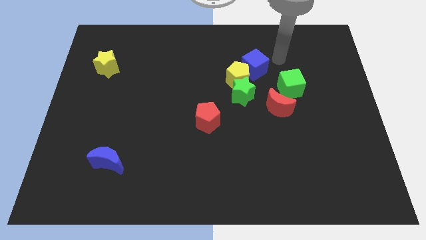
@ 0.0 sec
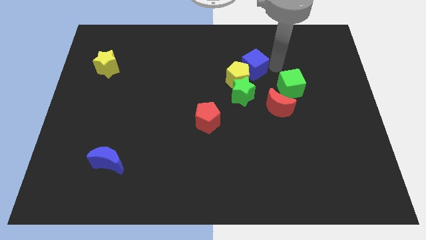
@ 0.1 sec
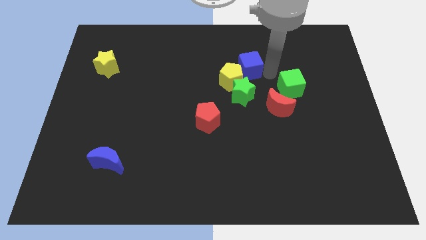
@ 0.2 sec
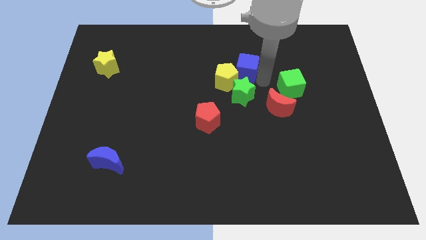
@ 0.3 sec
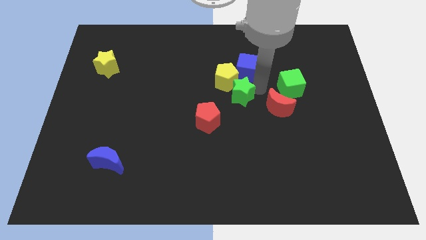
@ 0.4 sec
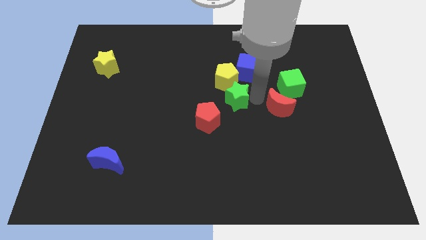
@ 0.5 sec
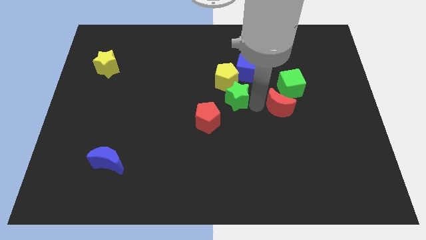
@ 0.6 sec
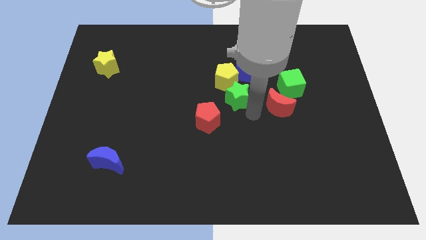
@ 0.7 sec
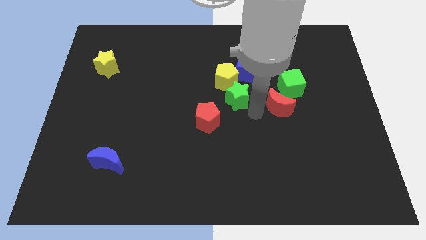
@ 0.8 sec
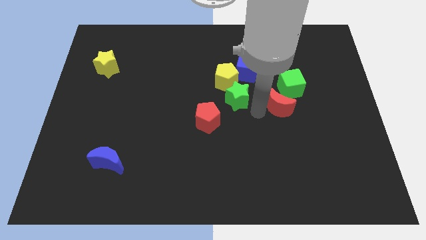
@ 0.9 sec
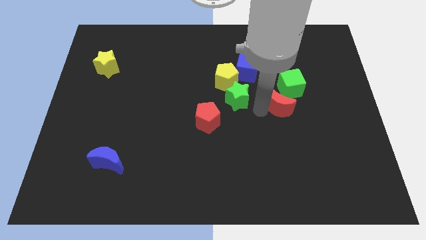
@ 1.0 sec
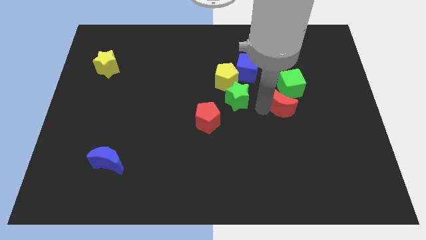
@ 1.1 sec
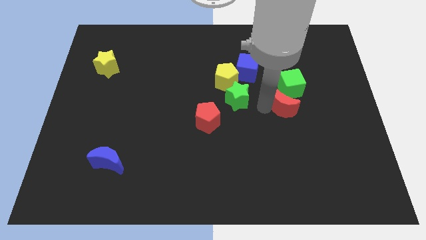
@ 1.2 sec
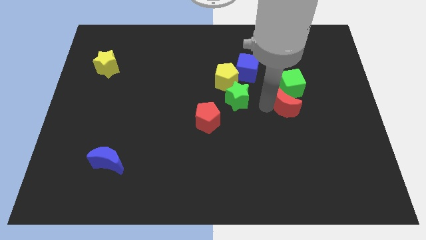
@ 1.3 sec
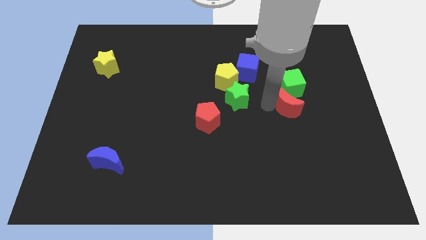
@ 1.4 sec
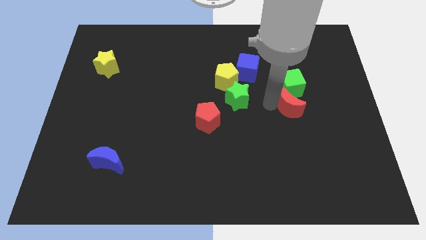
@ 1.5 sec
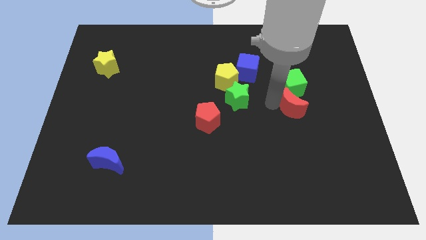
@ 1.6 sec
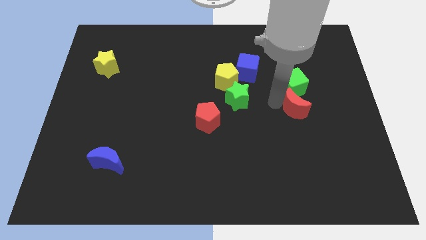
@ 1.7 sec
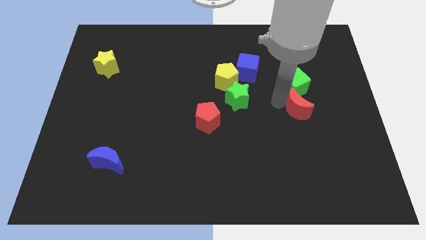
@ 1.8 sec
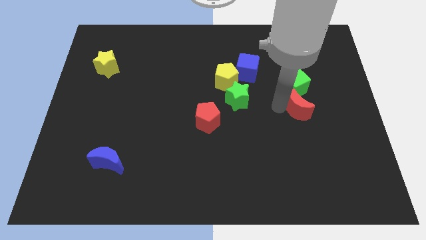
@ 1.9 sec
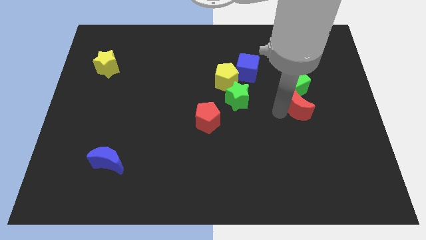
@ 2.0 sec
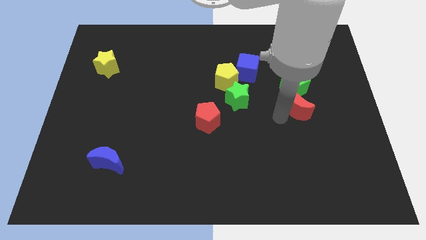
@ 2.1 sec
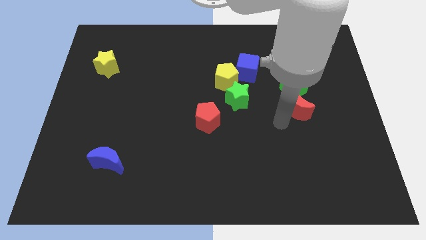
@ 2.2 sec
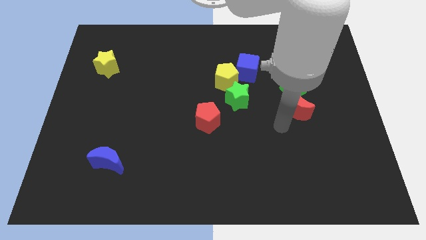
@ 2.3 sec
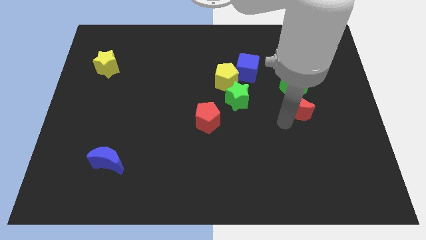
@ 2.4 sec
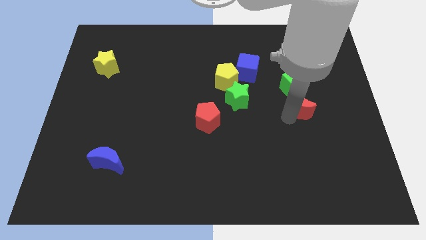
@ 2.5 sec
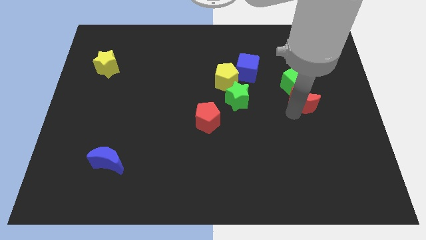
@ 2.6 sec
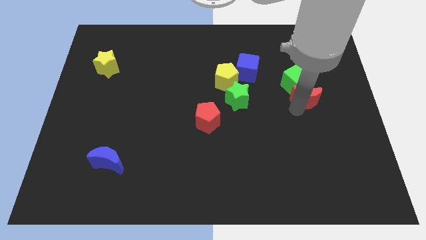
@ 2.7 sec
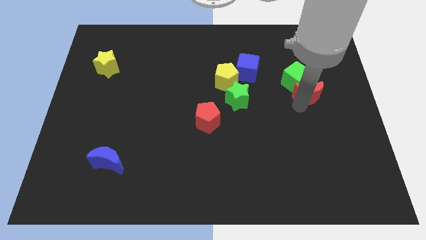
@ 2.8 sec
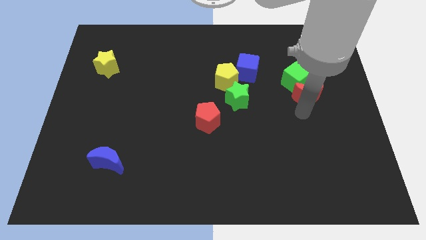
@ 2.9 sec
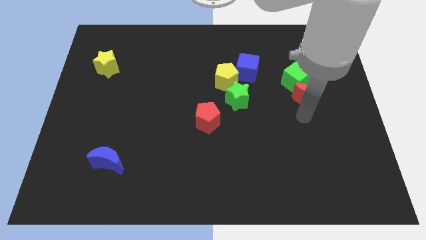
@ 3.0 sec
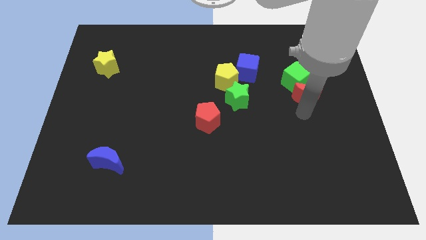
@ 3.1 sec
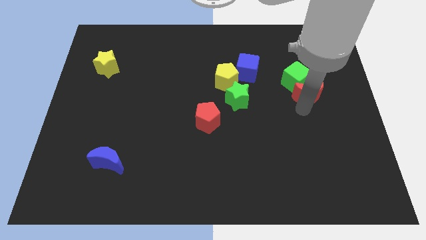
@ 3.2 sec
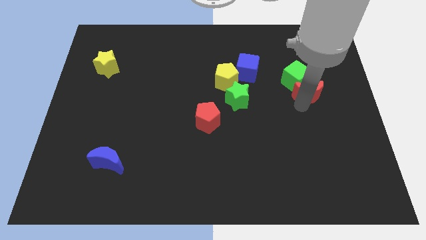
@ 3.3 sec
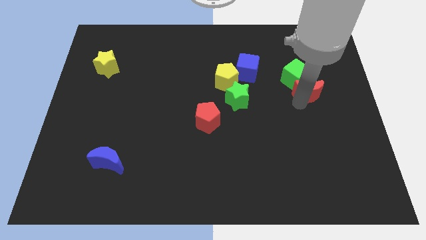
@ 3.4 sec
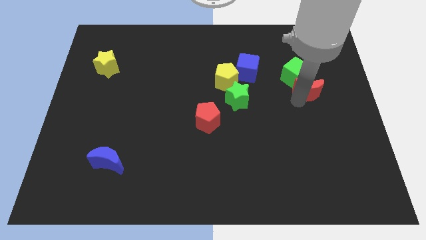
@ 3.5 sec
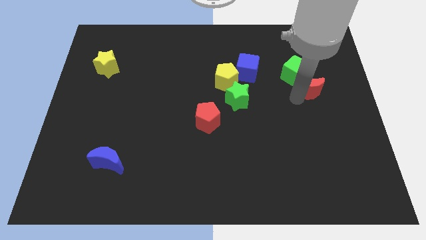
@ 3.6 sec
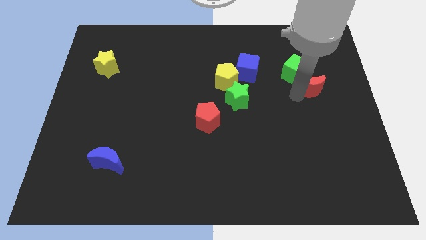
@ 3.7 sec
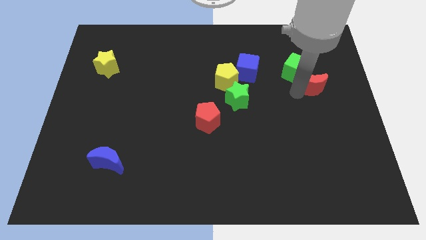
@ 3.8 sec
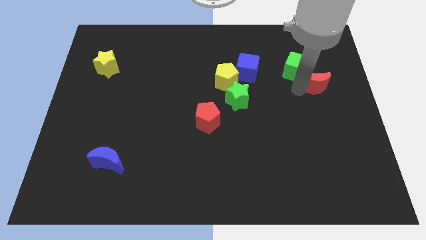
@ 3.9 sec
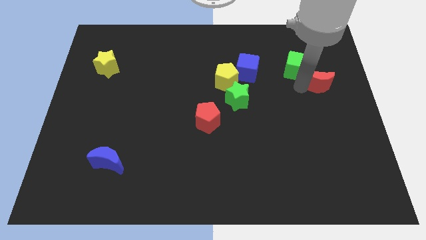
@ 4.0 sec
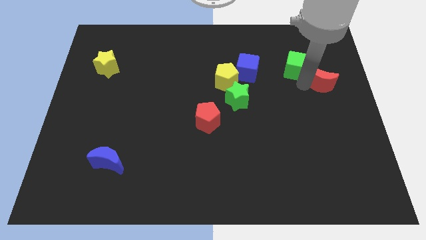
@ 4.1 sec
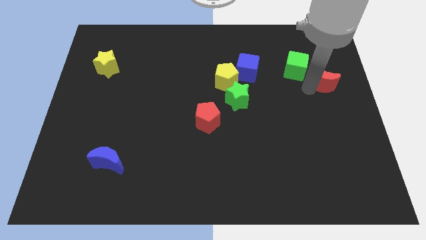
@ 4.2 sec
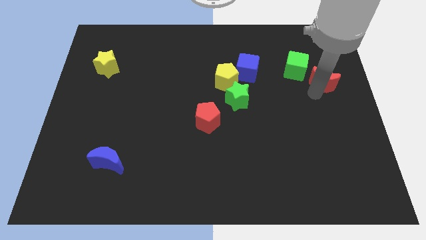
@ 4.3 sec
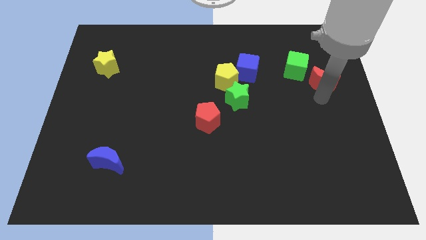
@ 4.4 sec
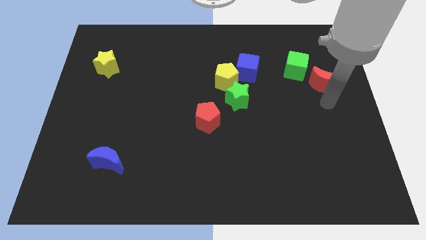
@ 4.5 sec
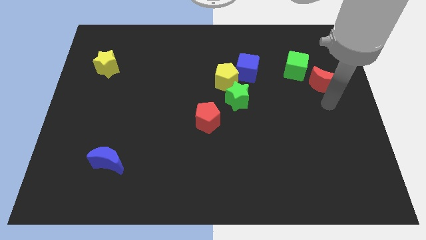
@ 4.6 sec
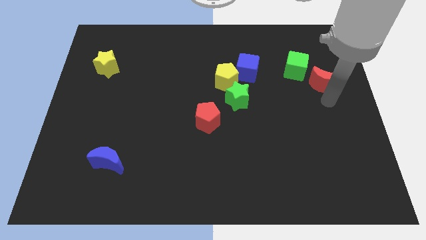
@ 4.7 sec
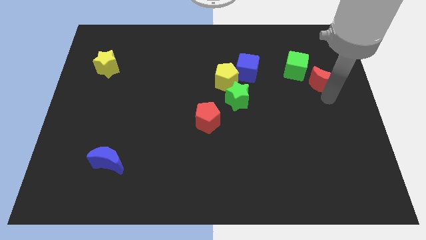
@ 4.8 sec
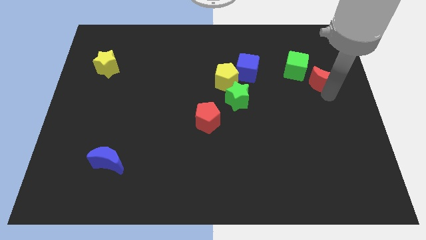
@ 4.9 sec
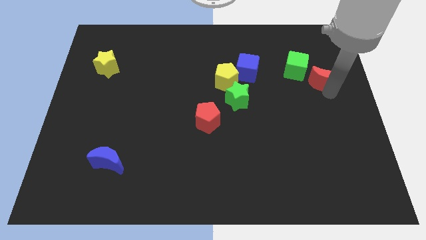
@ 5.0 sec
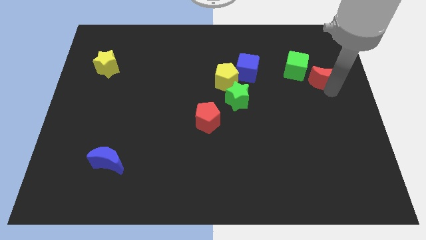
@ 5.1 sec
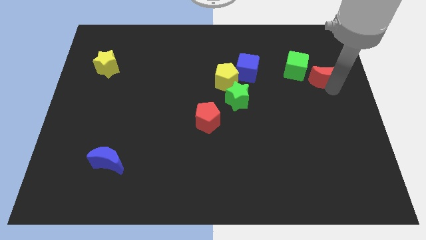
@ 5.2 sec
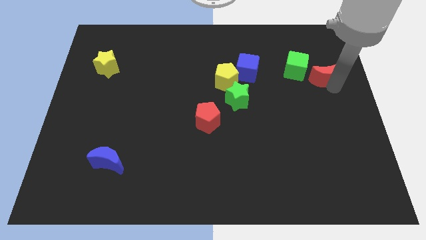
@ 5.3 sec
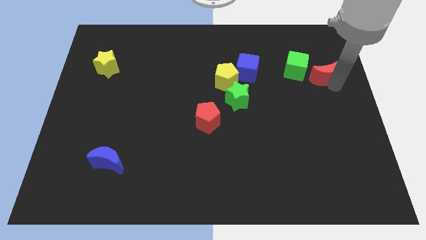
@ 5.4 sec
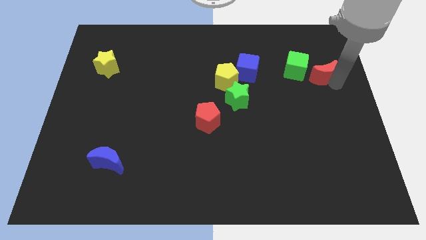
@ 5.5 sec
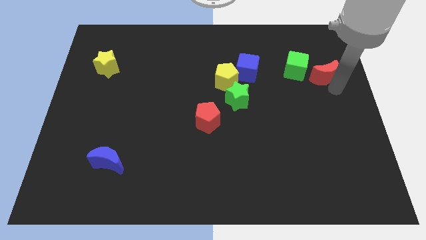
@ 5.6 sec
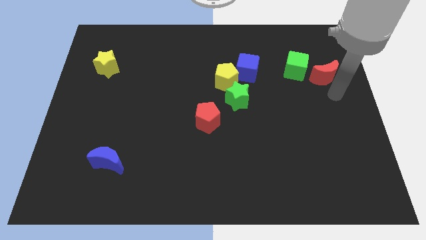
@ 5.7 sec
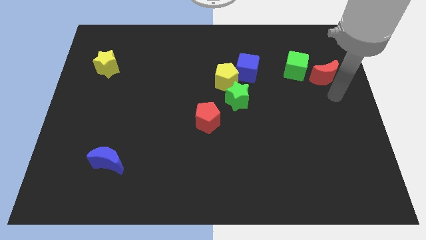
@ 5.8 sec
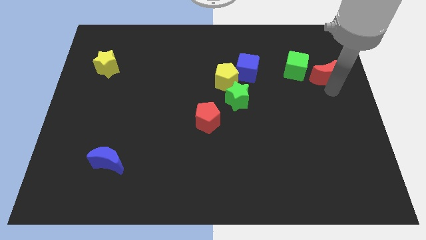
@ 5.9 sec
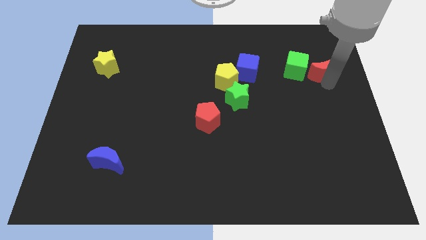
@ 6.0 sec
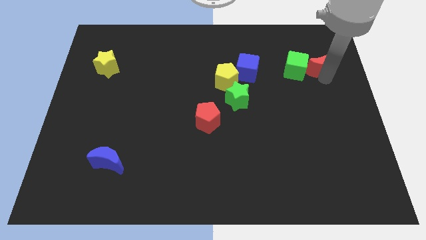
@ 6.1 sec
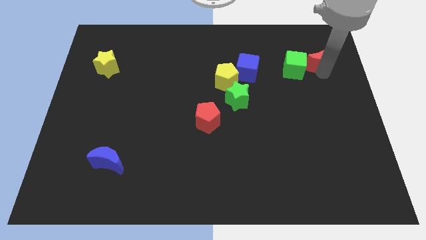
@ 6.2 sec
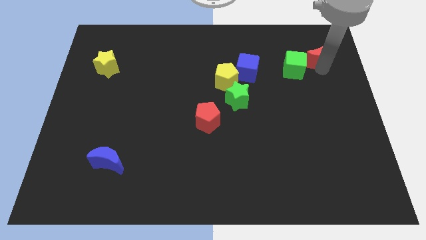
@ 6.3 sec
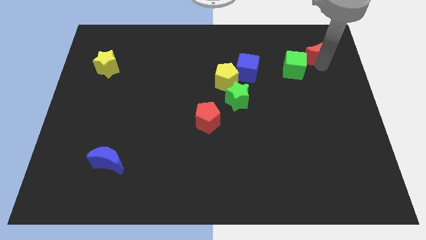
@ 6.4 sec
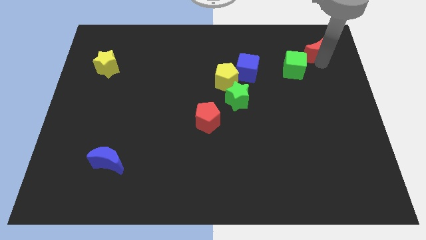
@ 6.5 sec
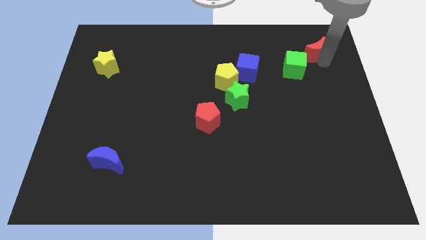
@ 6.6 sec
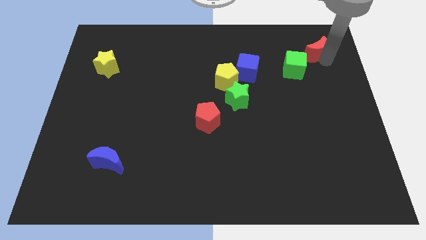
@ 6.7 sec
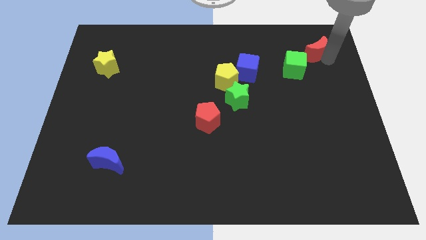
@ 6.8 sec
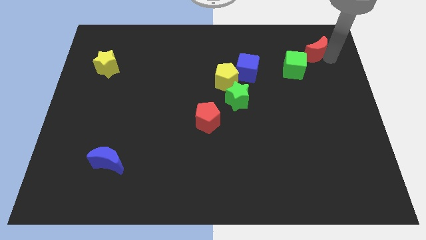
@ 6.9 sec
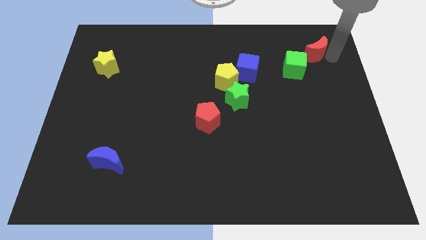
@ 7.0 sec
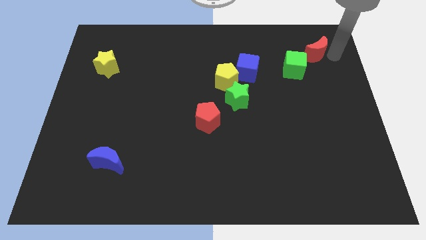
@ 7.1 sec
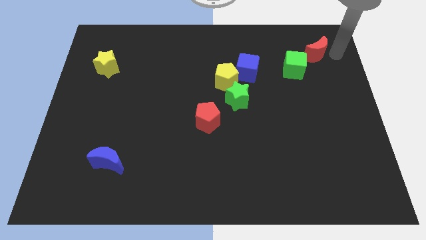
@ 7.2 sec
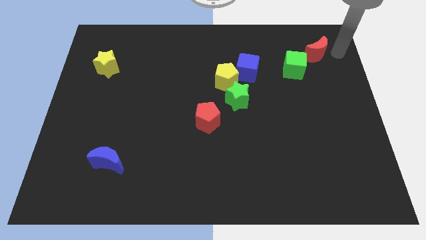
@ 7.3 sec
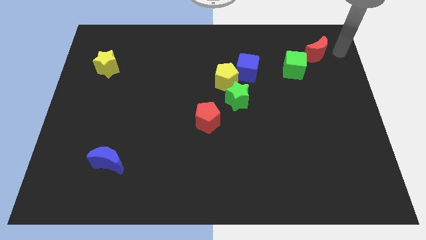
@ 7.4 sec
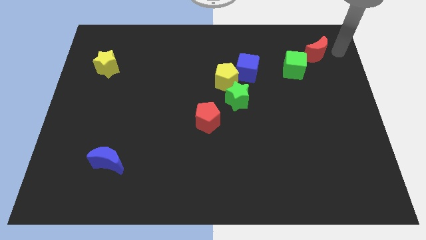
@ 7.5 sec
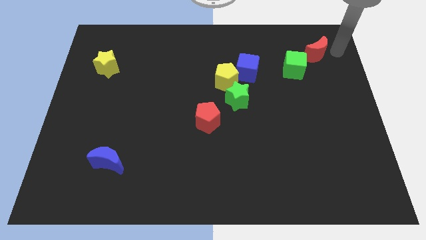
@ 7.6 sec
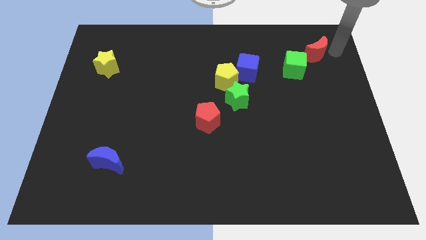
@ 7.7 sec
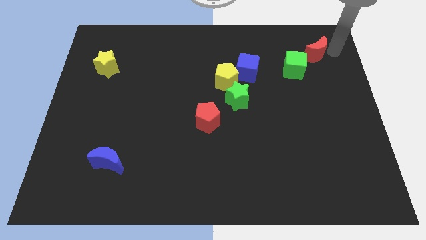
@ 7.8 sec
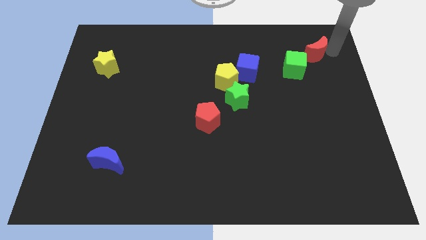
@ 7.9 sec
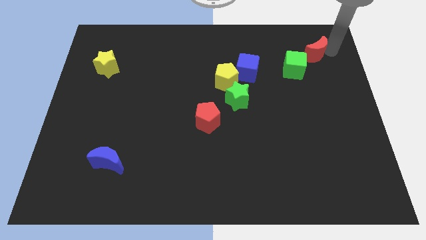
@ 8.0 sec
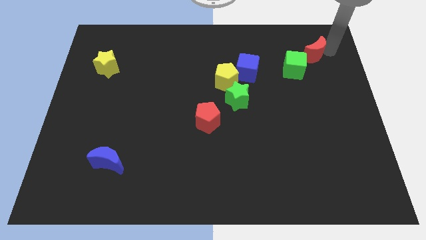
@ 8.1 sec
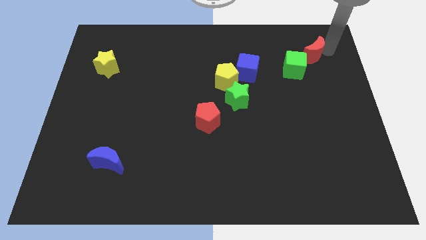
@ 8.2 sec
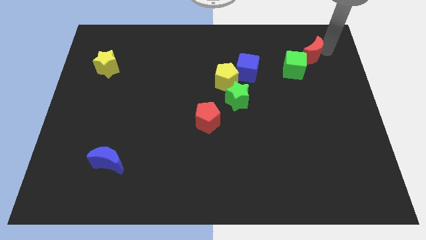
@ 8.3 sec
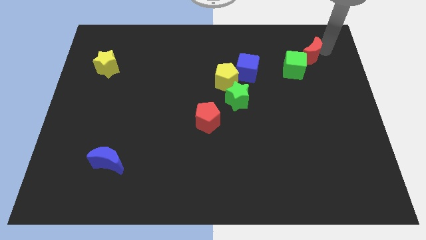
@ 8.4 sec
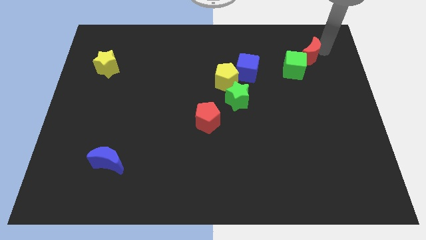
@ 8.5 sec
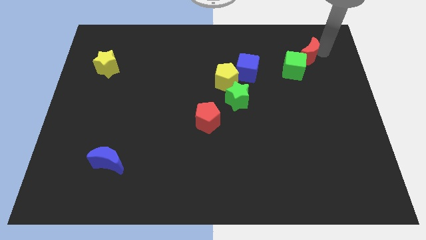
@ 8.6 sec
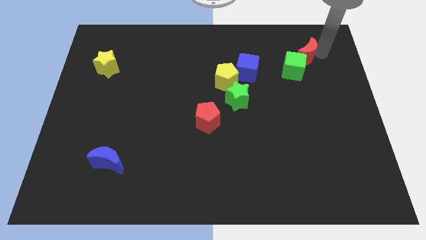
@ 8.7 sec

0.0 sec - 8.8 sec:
push the red moon diagonally up and to the right of the green cube
